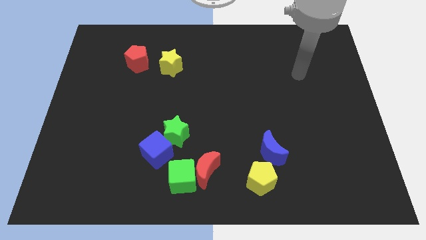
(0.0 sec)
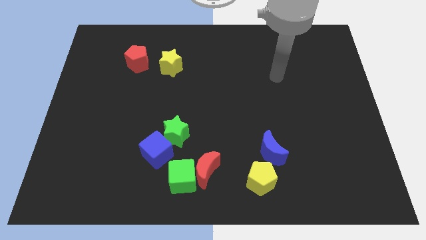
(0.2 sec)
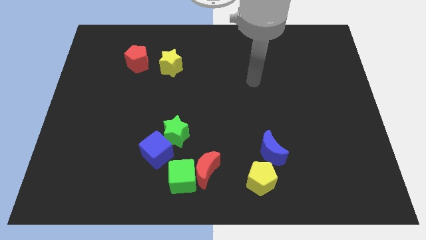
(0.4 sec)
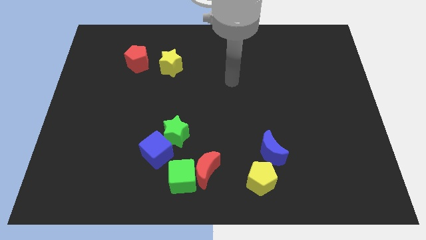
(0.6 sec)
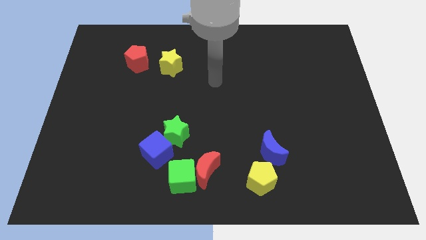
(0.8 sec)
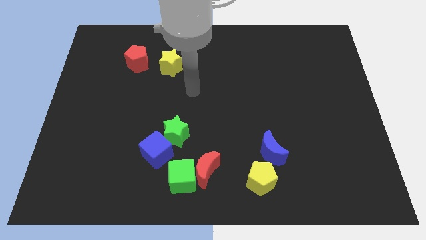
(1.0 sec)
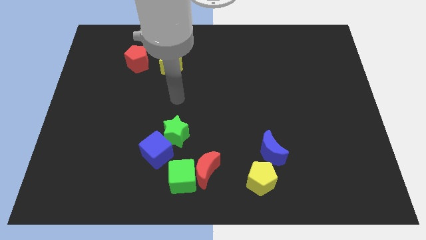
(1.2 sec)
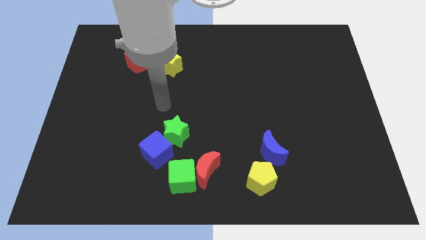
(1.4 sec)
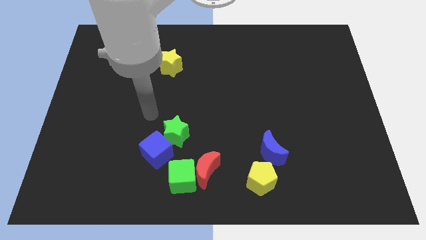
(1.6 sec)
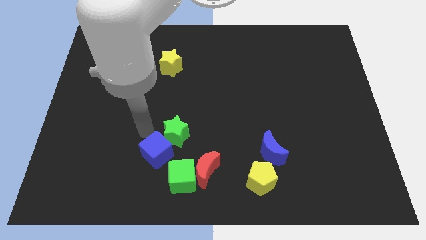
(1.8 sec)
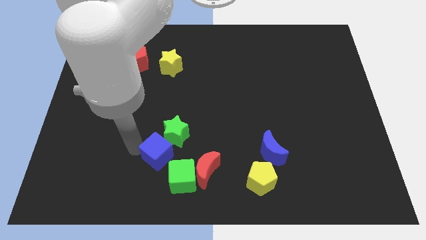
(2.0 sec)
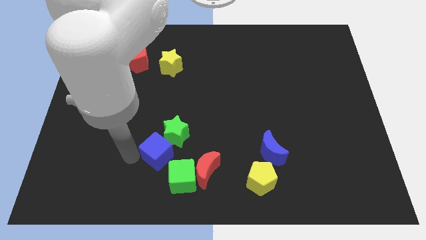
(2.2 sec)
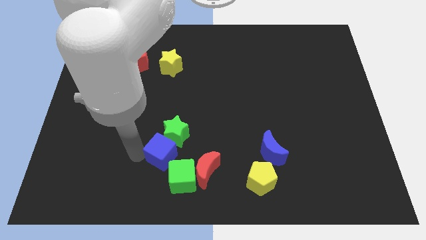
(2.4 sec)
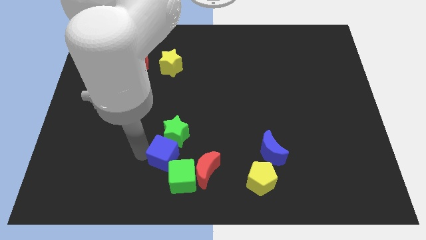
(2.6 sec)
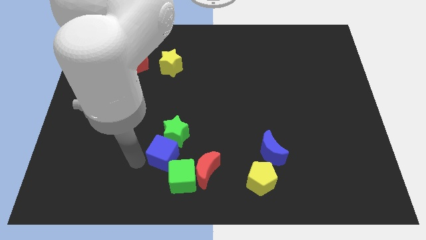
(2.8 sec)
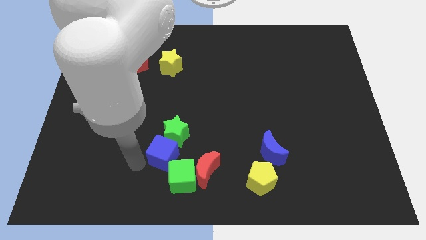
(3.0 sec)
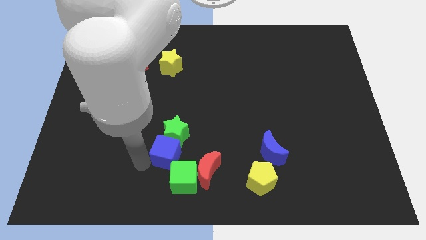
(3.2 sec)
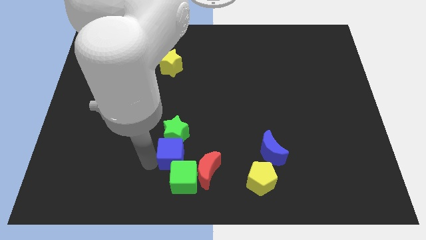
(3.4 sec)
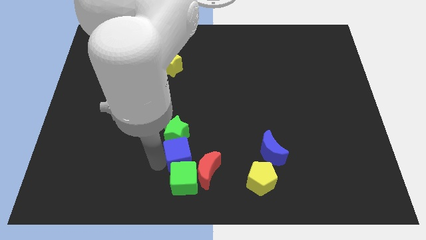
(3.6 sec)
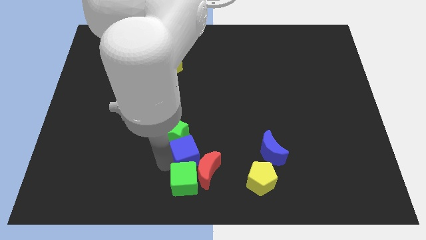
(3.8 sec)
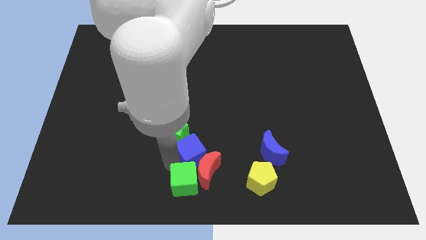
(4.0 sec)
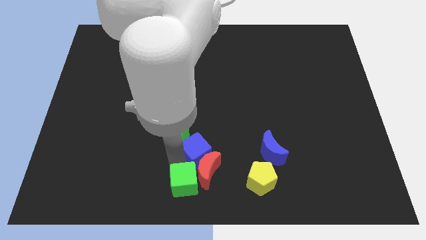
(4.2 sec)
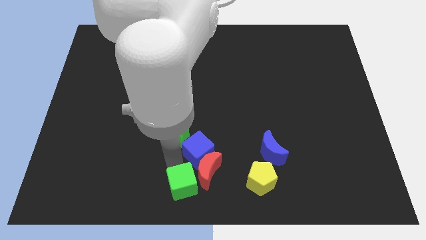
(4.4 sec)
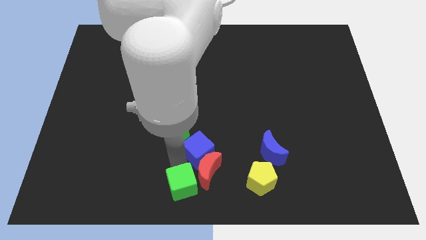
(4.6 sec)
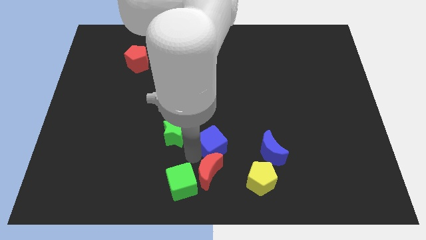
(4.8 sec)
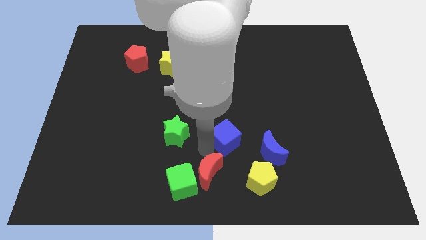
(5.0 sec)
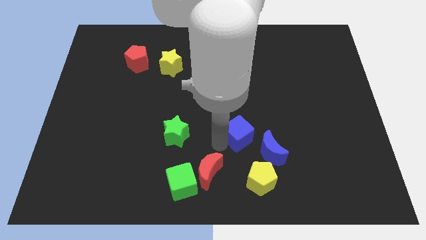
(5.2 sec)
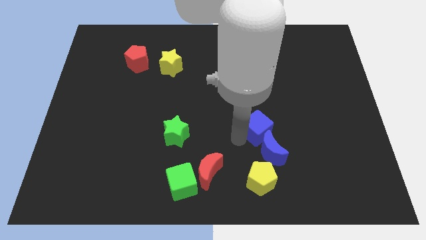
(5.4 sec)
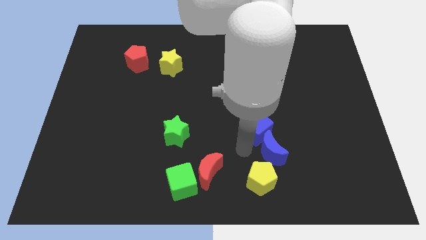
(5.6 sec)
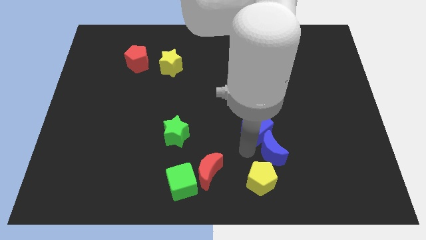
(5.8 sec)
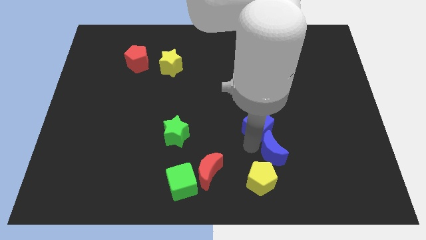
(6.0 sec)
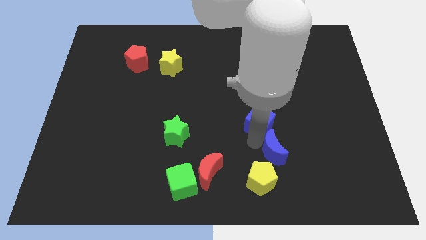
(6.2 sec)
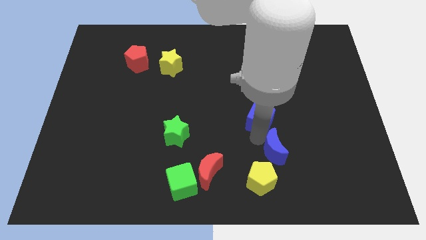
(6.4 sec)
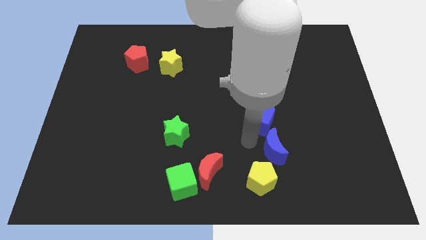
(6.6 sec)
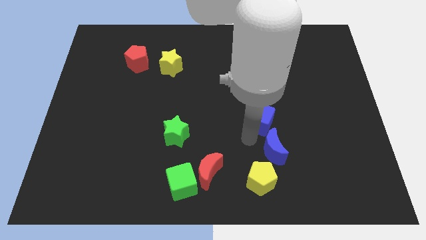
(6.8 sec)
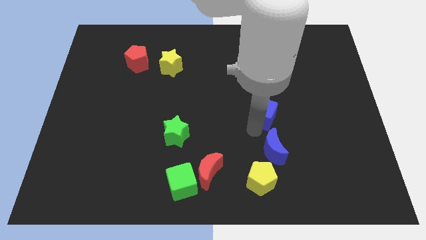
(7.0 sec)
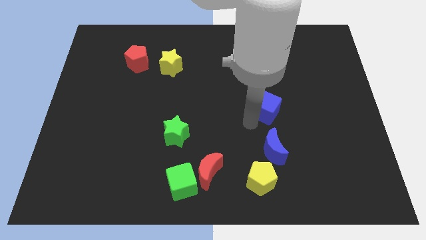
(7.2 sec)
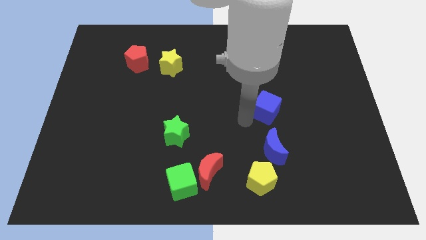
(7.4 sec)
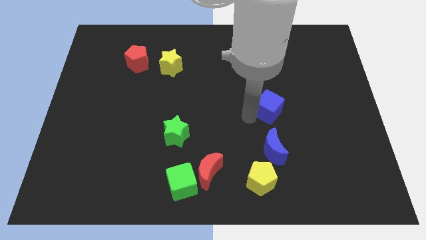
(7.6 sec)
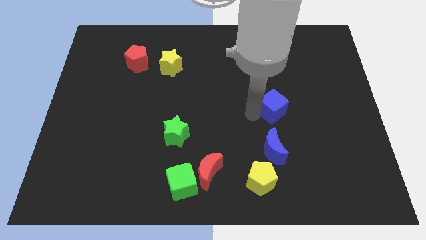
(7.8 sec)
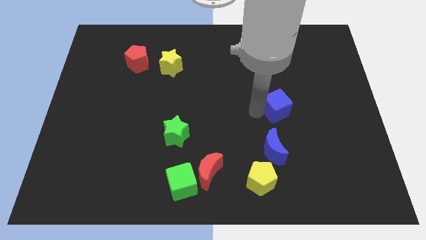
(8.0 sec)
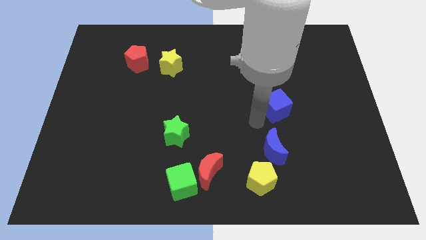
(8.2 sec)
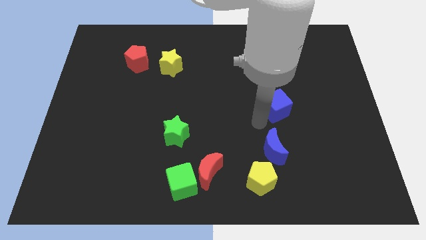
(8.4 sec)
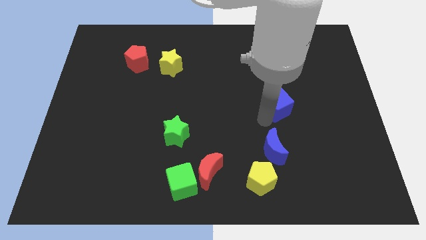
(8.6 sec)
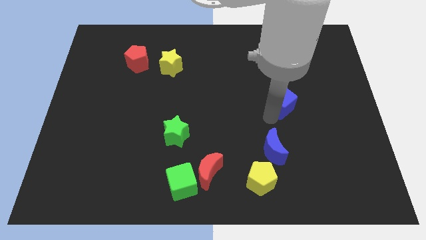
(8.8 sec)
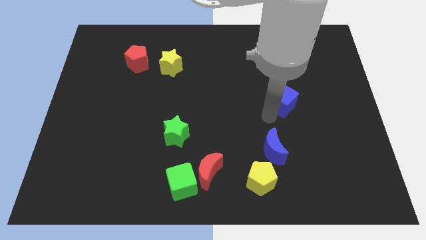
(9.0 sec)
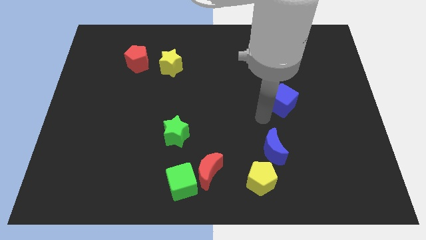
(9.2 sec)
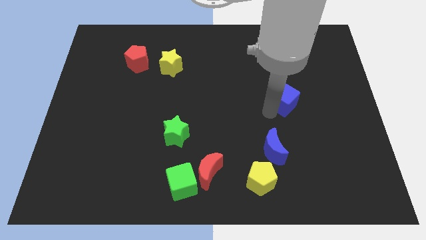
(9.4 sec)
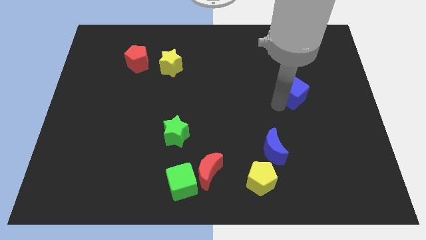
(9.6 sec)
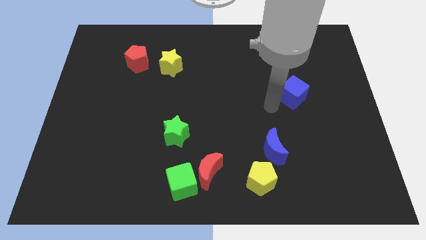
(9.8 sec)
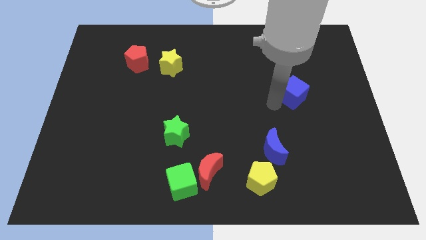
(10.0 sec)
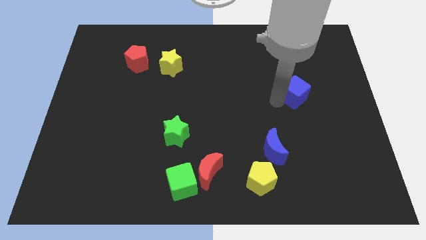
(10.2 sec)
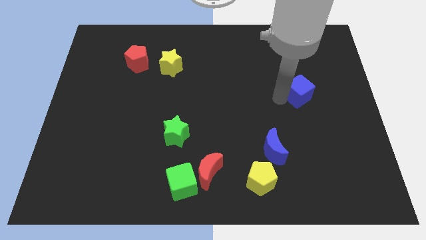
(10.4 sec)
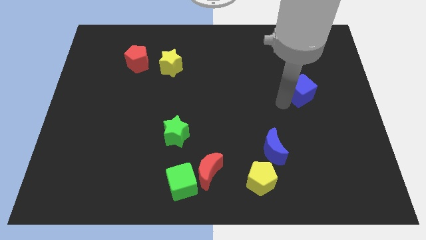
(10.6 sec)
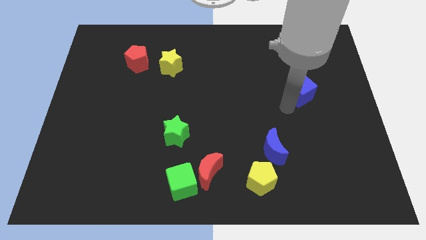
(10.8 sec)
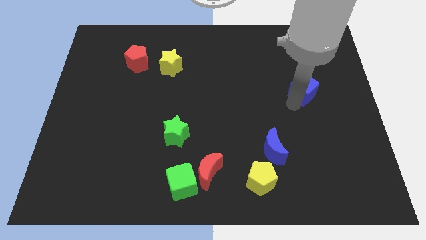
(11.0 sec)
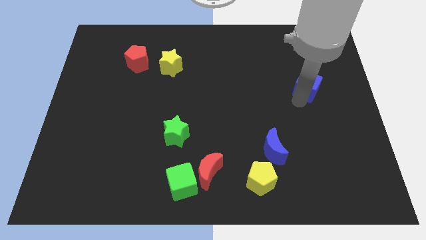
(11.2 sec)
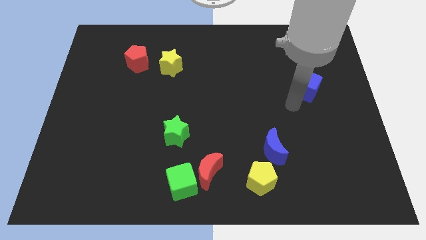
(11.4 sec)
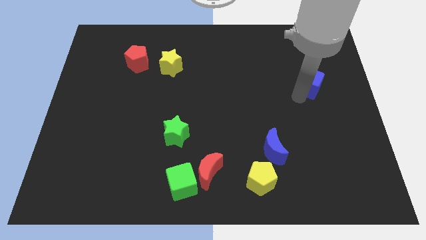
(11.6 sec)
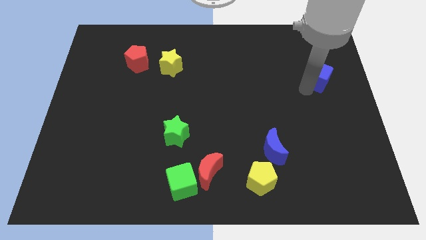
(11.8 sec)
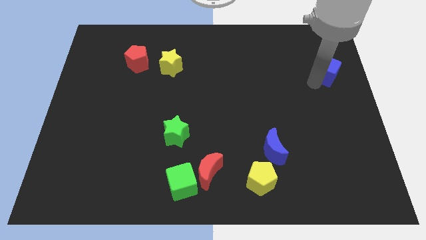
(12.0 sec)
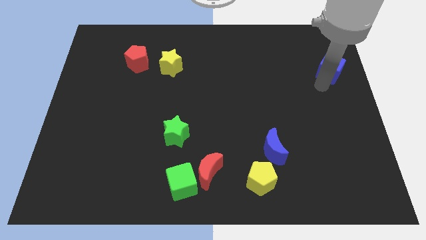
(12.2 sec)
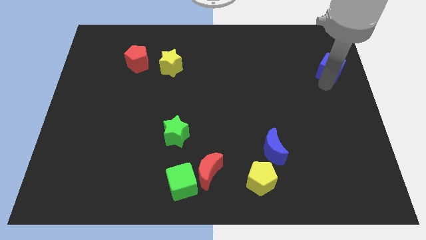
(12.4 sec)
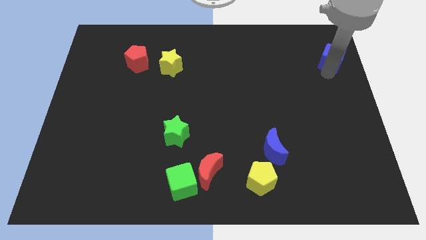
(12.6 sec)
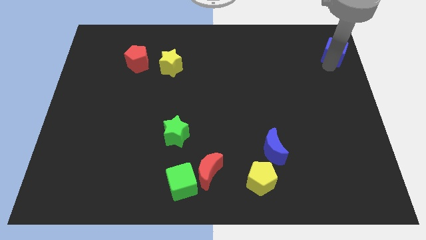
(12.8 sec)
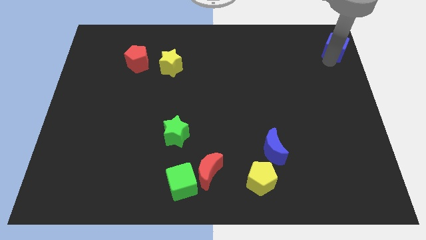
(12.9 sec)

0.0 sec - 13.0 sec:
move the blue cube to the top right of the board
